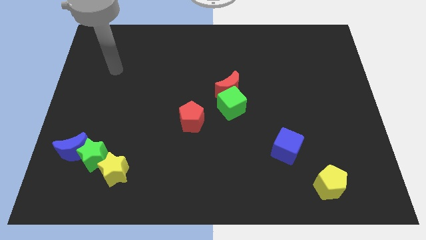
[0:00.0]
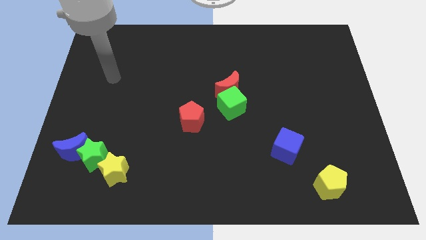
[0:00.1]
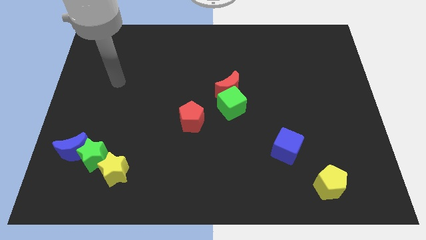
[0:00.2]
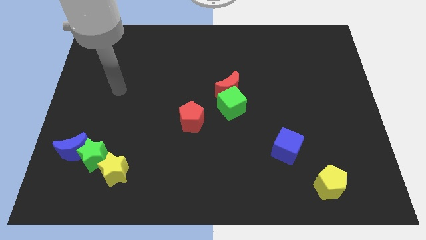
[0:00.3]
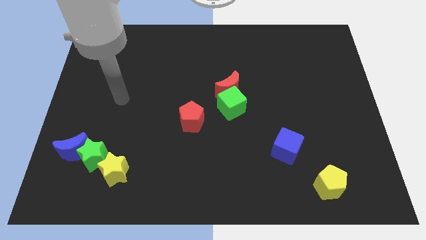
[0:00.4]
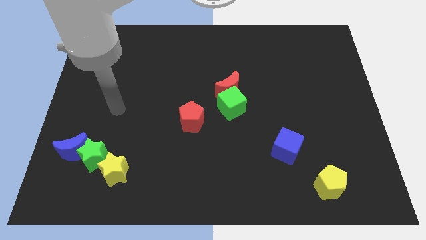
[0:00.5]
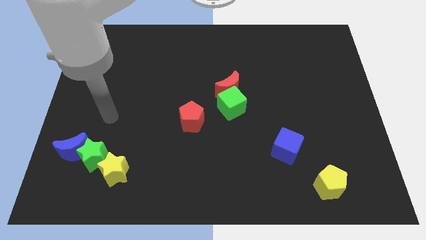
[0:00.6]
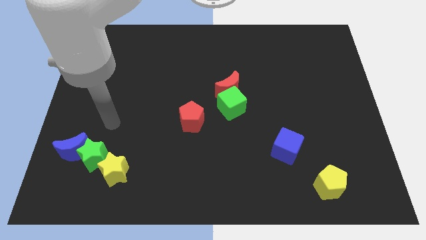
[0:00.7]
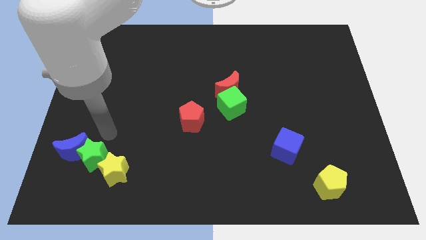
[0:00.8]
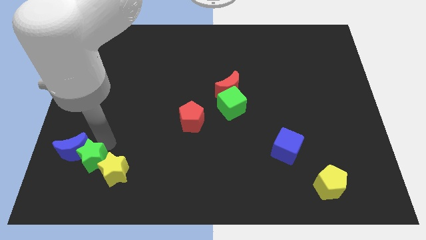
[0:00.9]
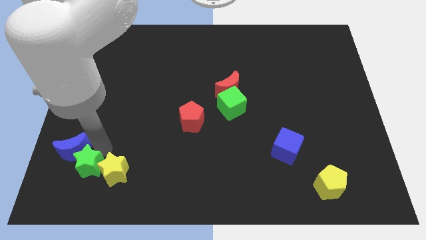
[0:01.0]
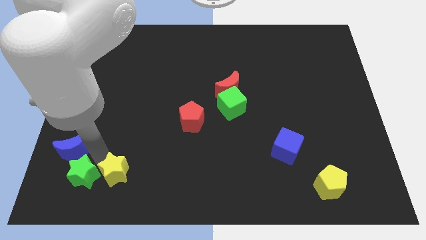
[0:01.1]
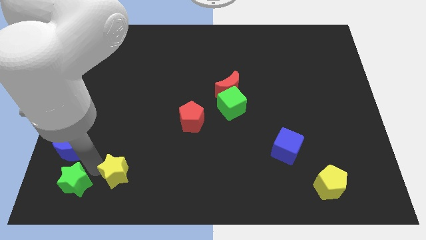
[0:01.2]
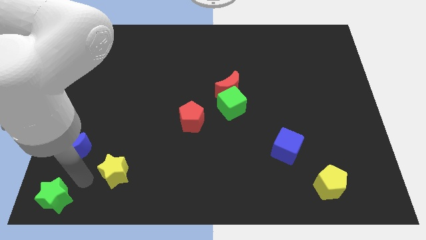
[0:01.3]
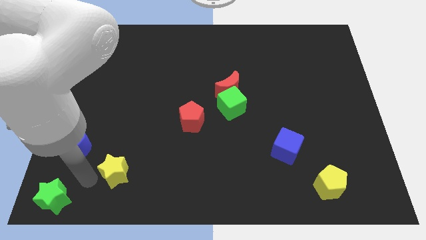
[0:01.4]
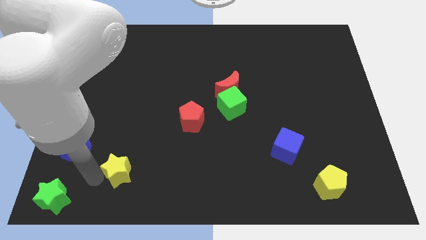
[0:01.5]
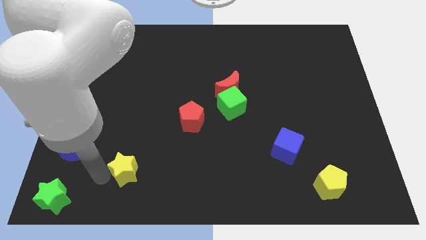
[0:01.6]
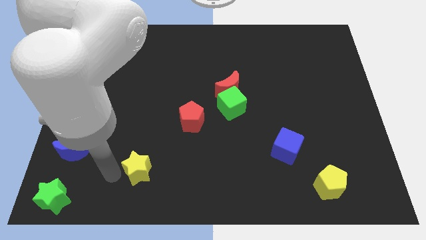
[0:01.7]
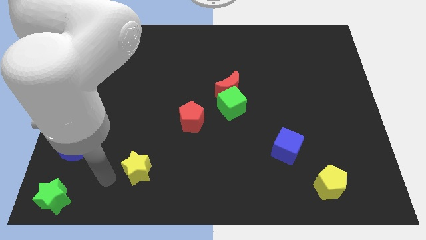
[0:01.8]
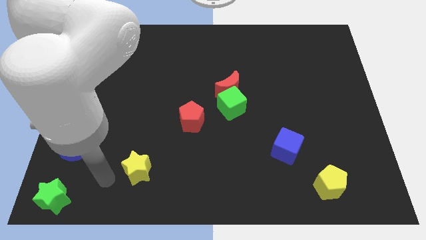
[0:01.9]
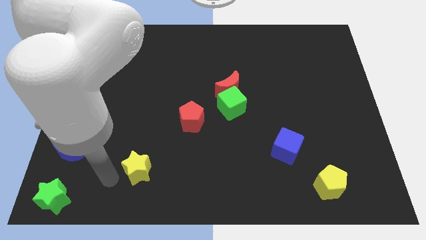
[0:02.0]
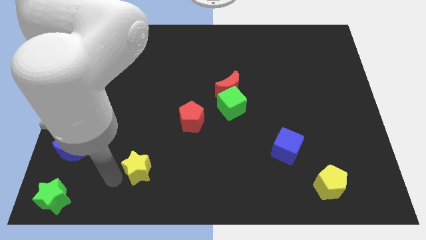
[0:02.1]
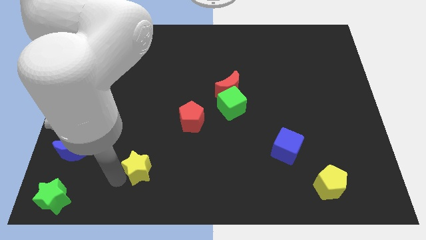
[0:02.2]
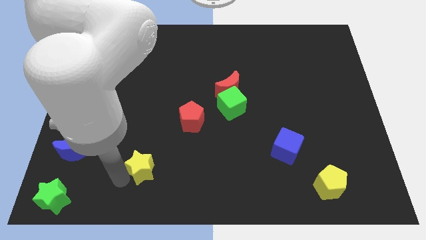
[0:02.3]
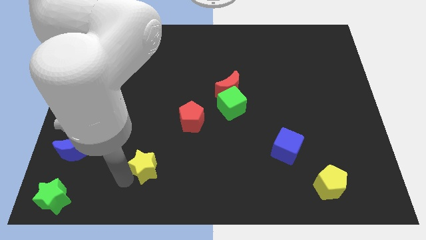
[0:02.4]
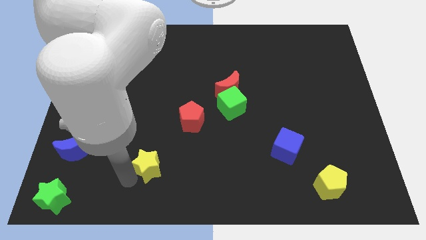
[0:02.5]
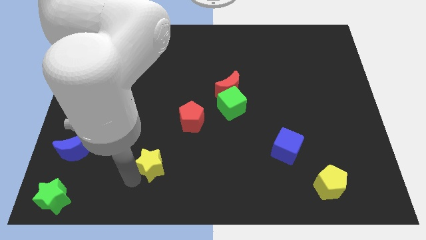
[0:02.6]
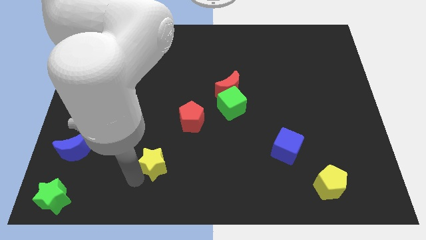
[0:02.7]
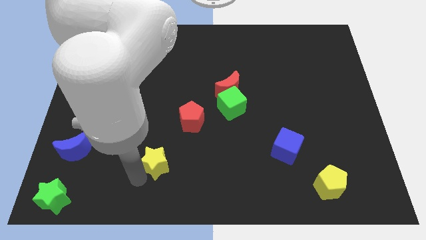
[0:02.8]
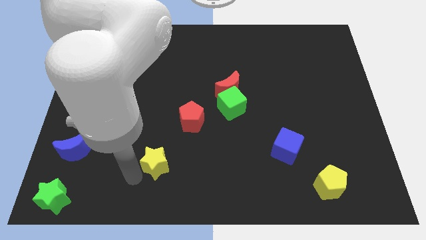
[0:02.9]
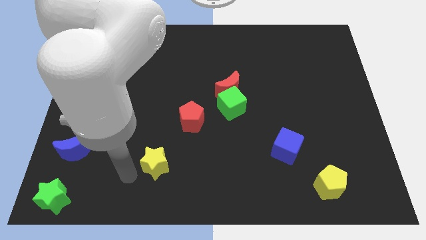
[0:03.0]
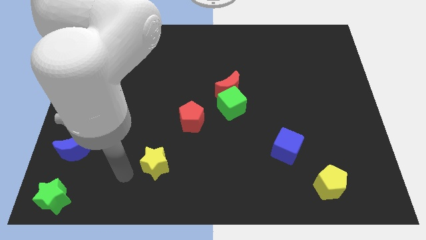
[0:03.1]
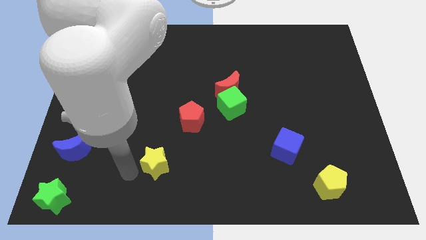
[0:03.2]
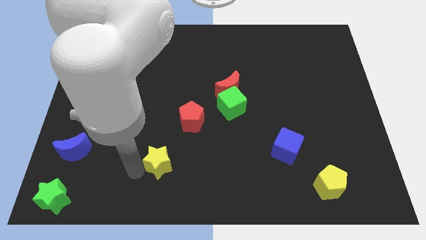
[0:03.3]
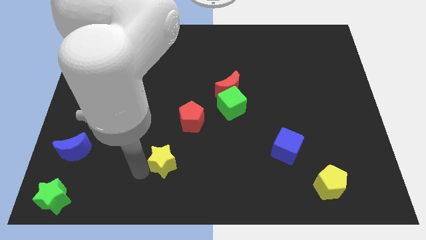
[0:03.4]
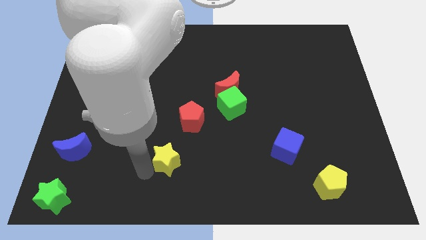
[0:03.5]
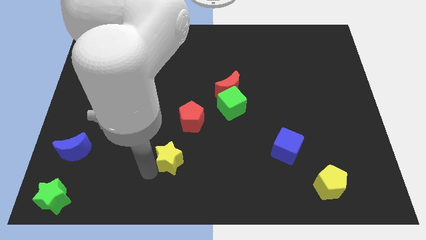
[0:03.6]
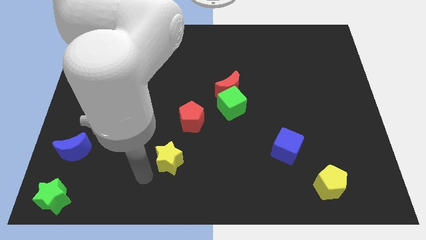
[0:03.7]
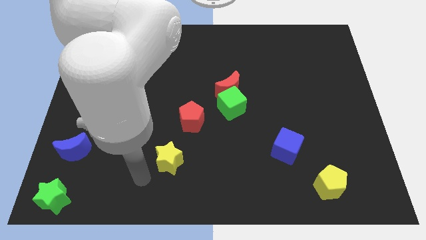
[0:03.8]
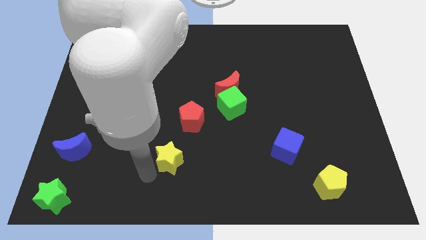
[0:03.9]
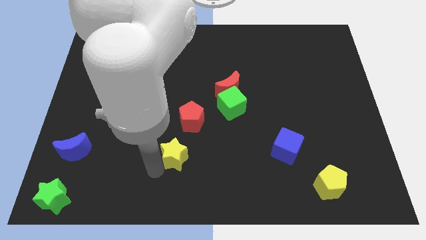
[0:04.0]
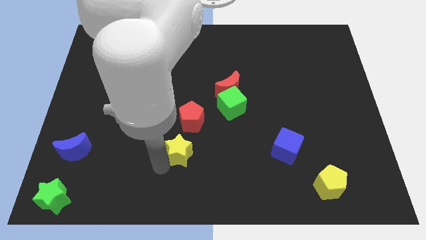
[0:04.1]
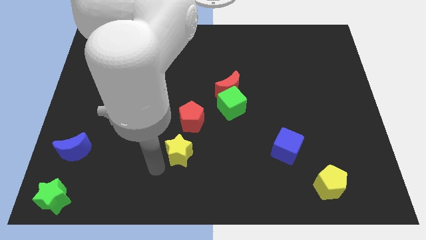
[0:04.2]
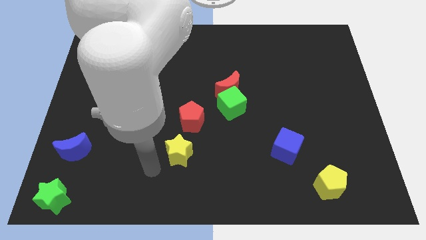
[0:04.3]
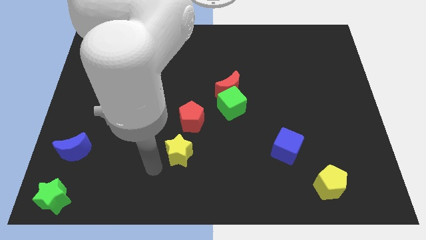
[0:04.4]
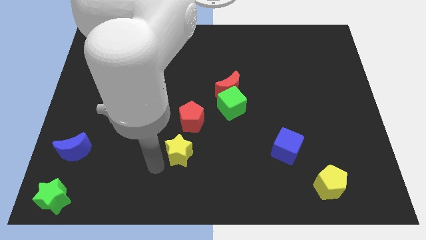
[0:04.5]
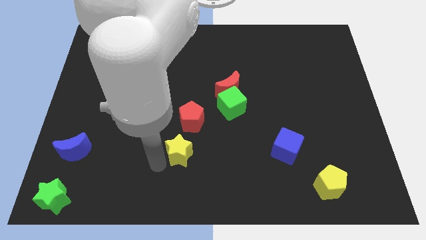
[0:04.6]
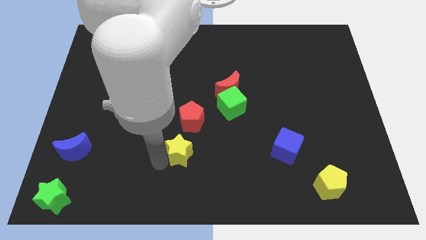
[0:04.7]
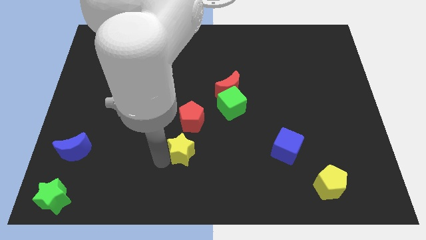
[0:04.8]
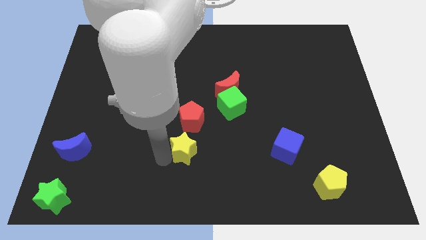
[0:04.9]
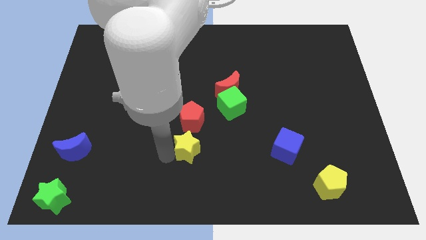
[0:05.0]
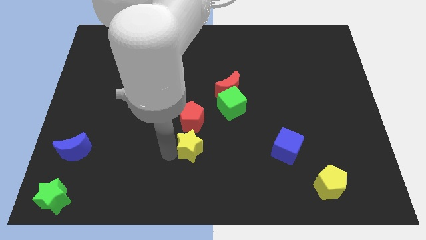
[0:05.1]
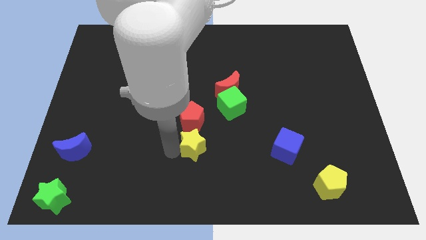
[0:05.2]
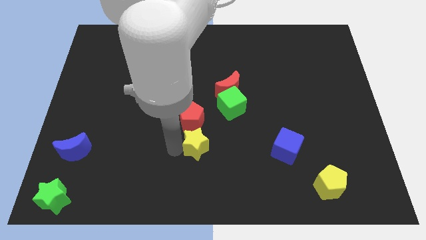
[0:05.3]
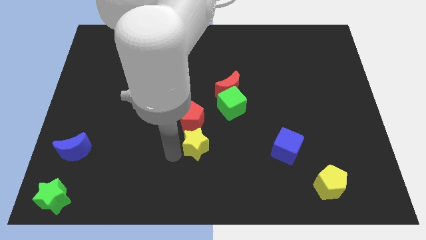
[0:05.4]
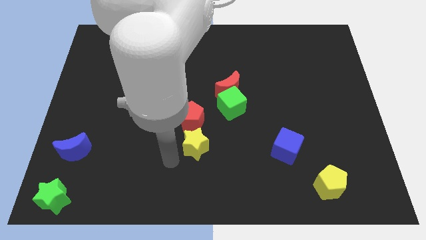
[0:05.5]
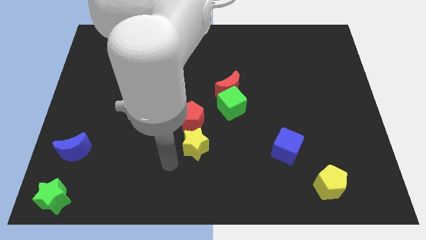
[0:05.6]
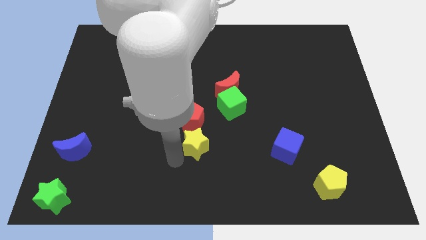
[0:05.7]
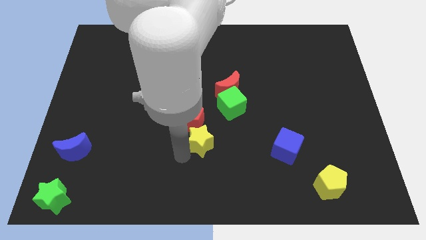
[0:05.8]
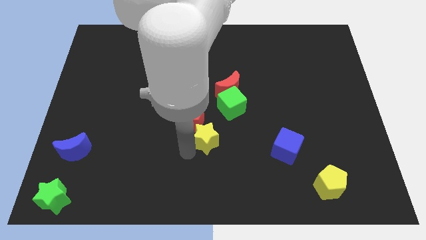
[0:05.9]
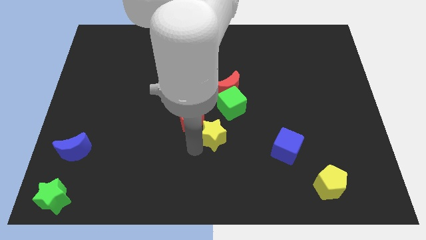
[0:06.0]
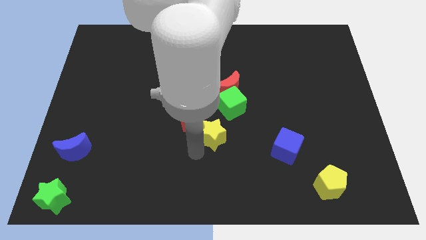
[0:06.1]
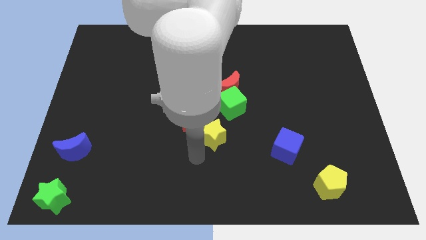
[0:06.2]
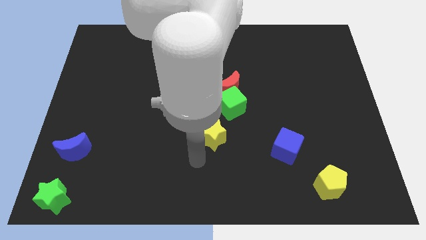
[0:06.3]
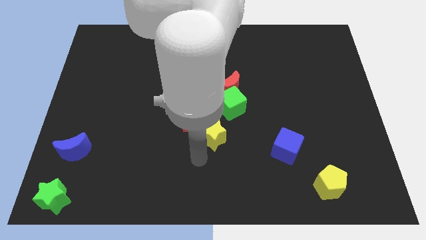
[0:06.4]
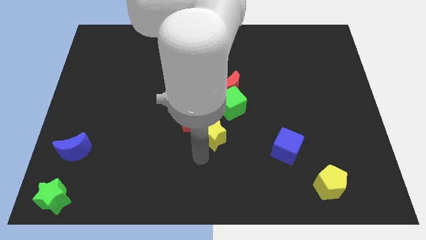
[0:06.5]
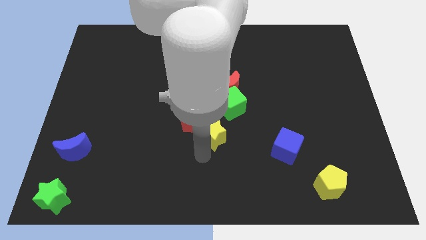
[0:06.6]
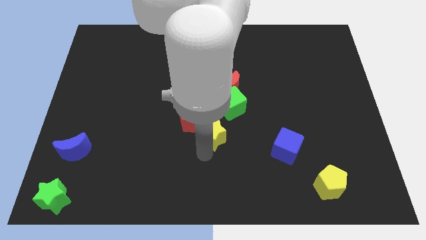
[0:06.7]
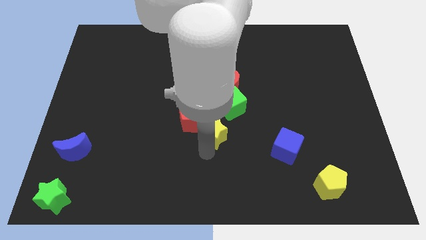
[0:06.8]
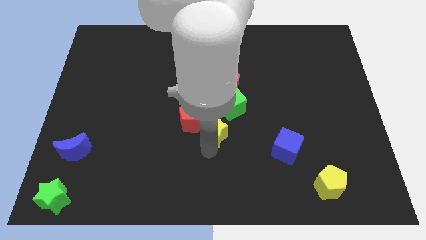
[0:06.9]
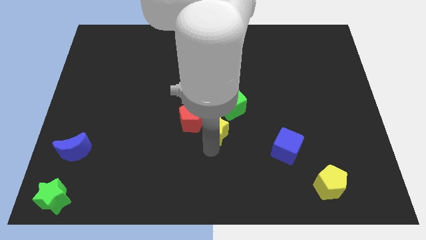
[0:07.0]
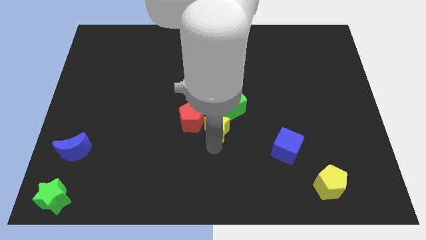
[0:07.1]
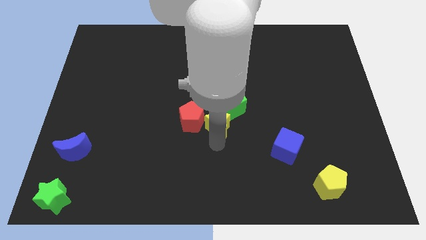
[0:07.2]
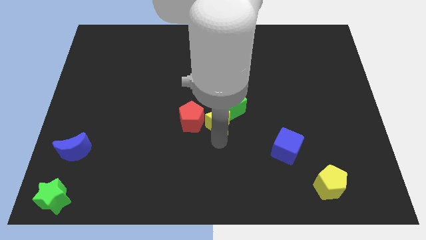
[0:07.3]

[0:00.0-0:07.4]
put the yellow star next to the green cube
